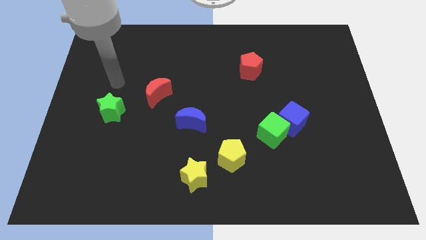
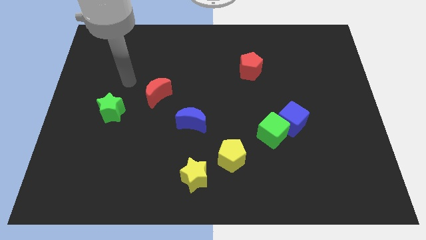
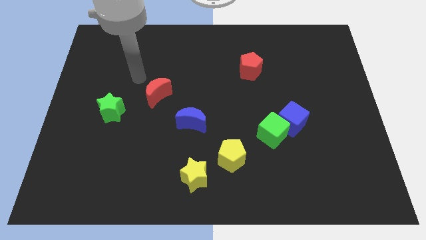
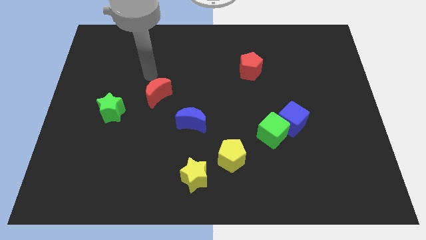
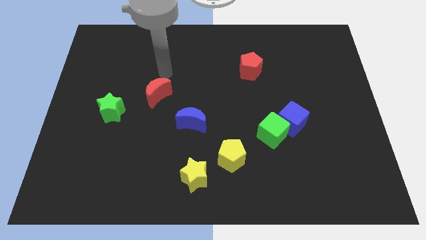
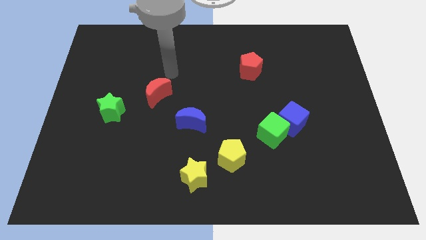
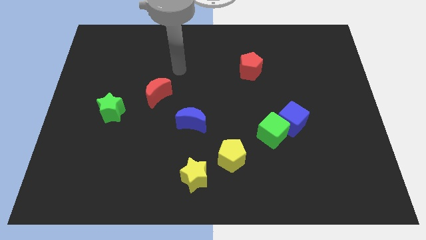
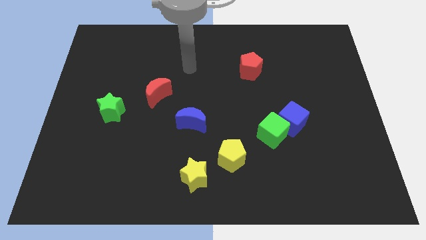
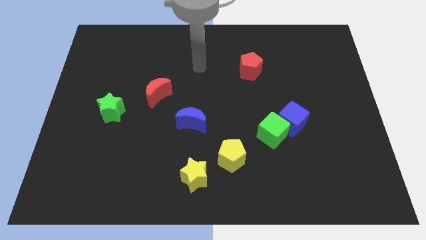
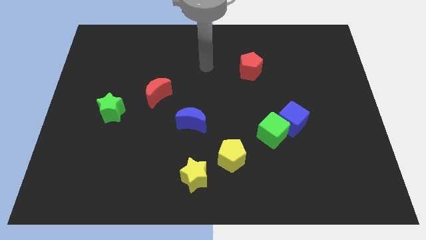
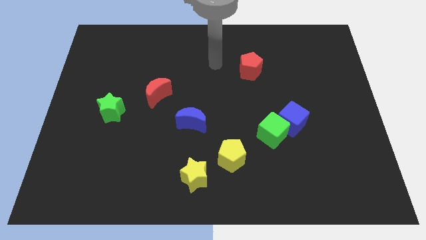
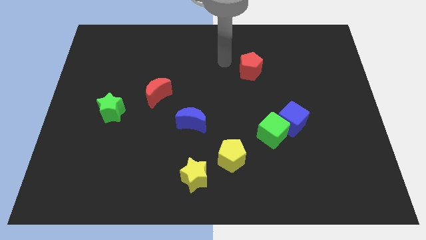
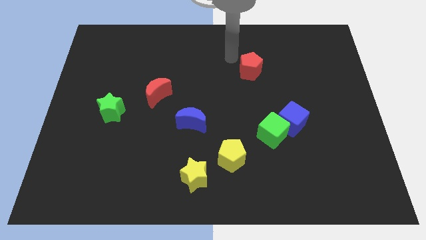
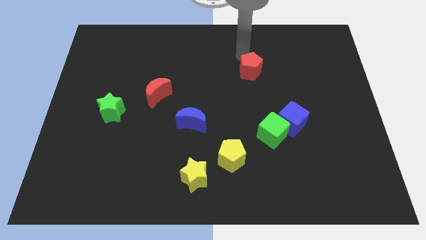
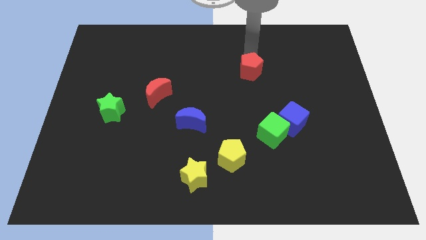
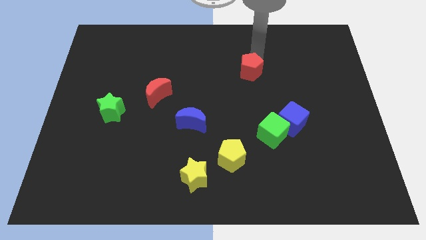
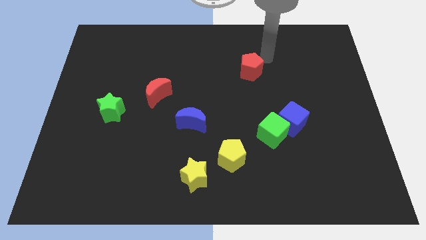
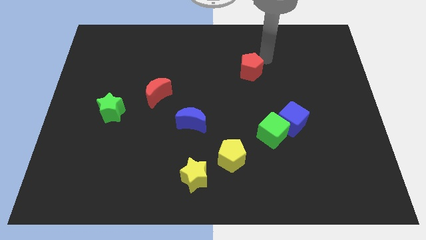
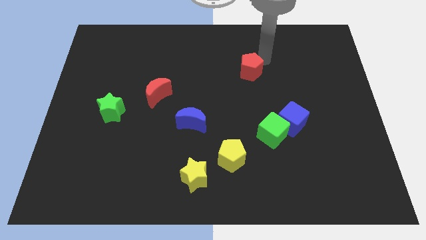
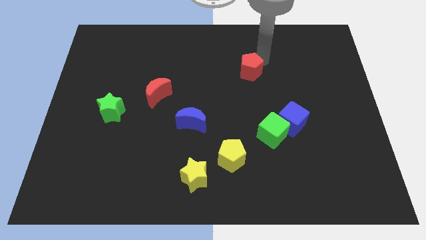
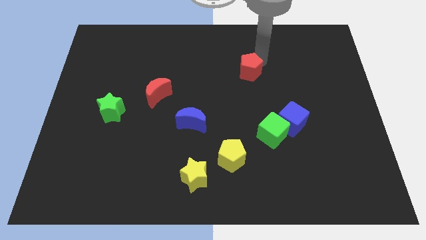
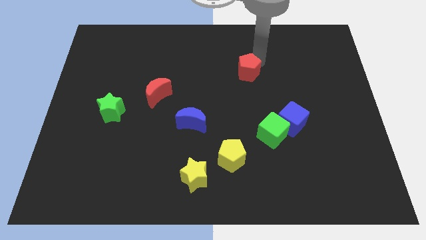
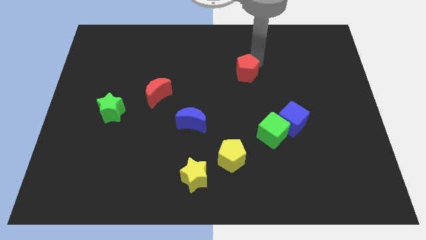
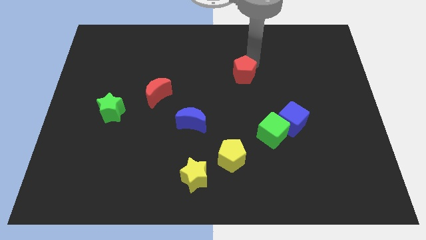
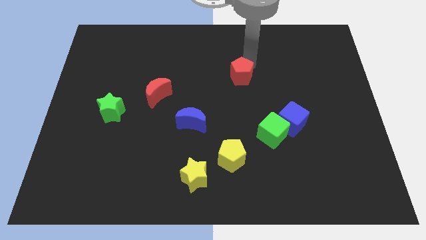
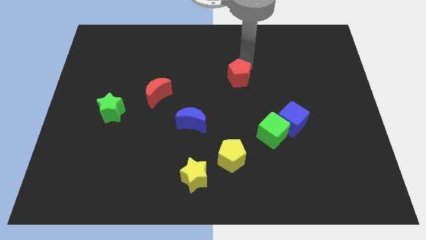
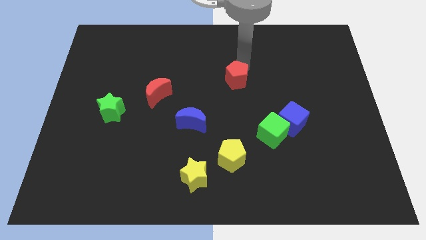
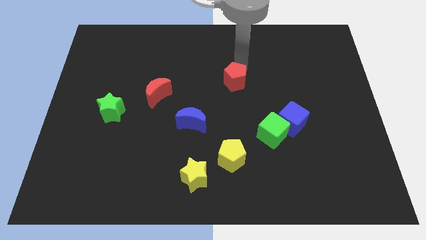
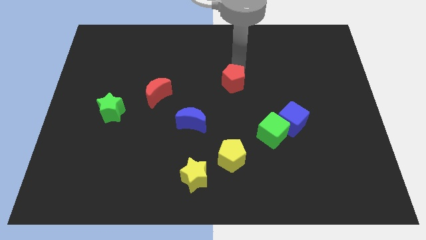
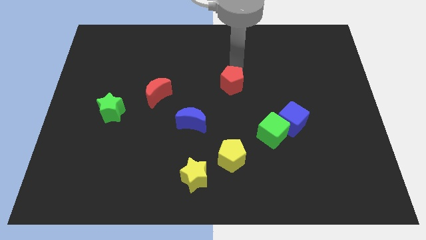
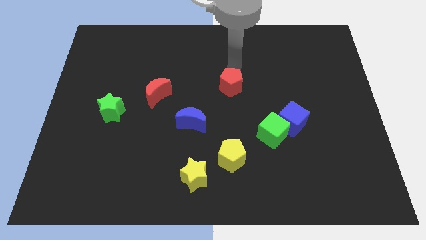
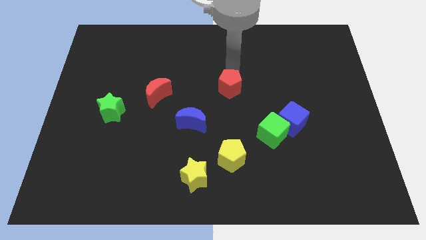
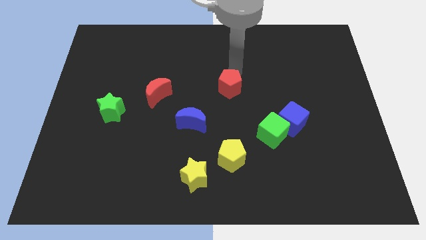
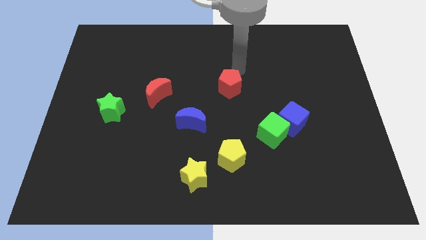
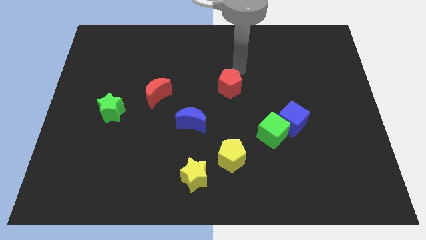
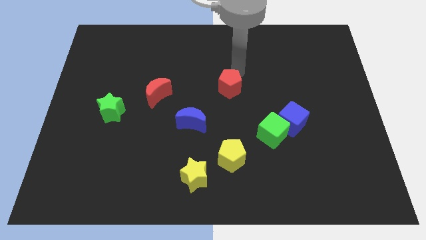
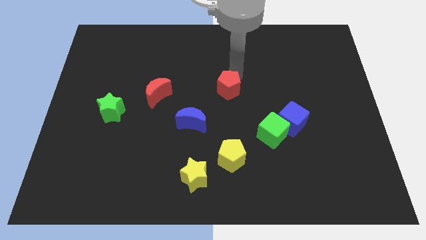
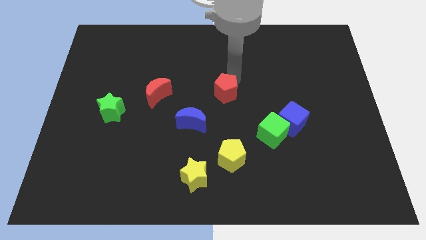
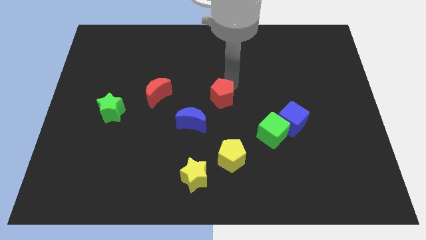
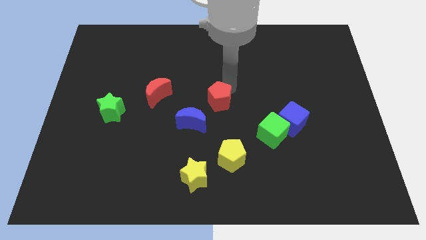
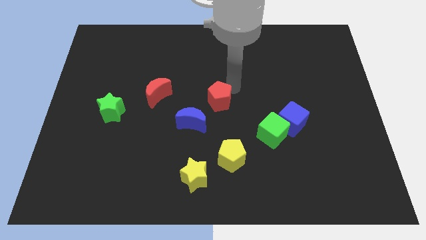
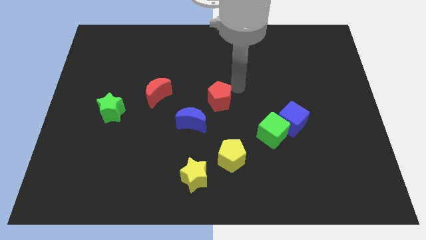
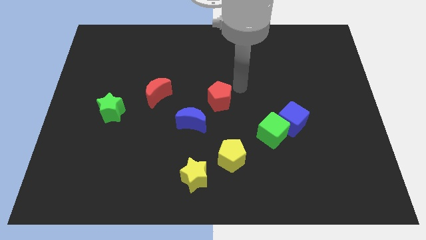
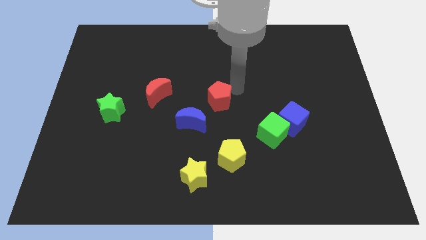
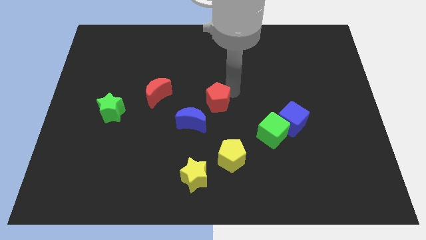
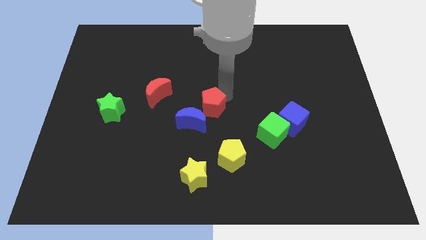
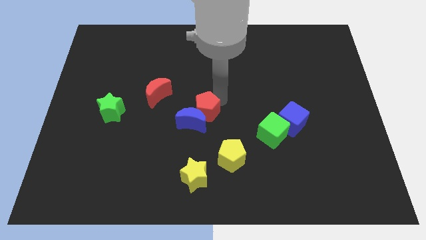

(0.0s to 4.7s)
slide the red pentagon close to the blue moon

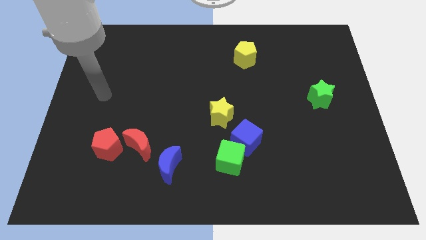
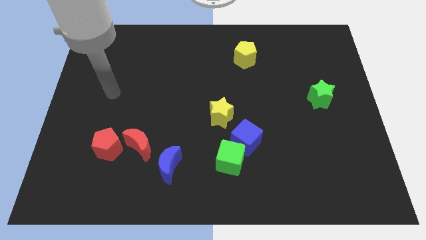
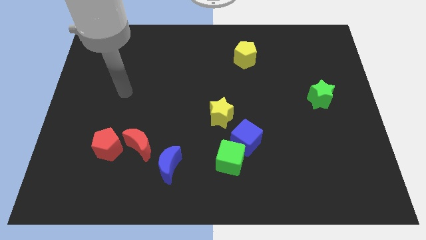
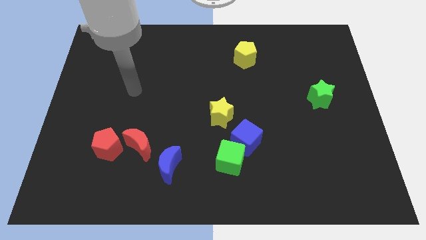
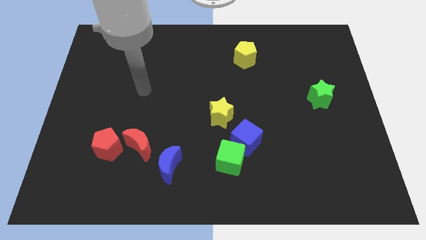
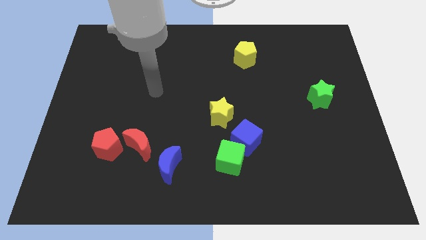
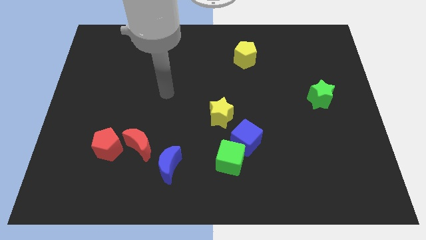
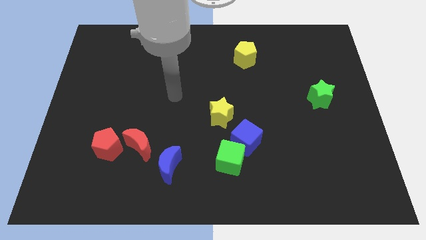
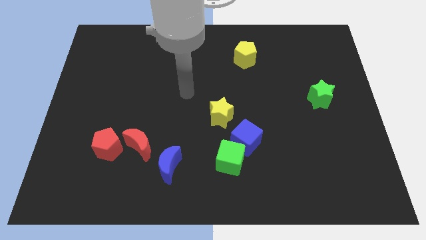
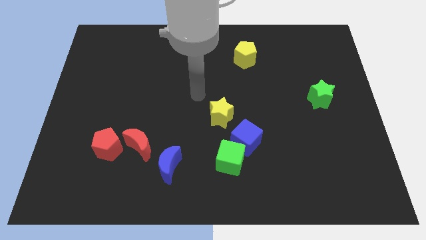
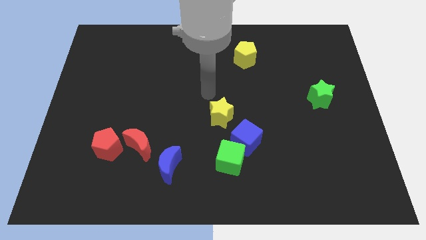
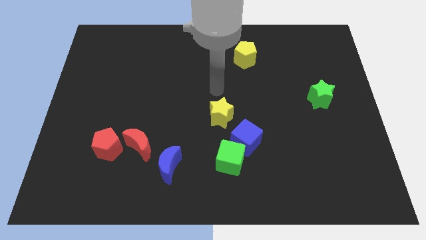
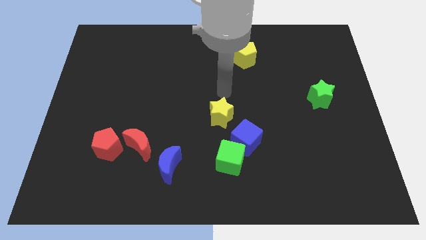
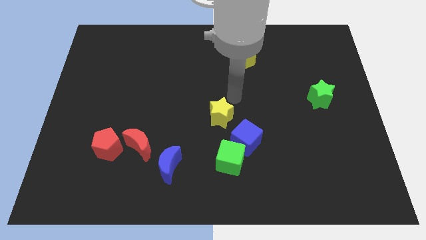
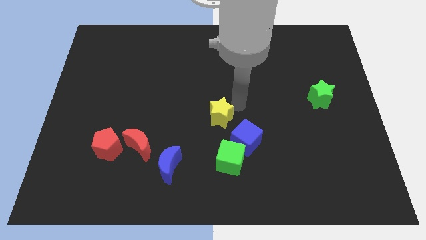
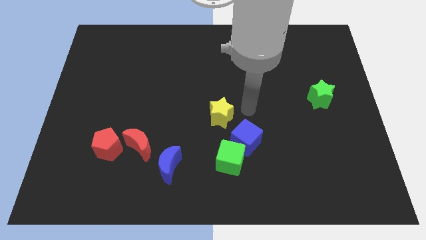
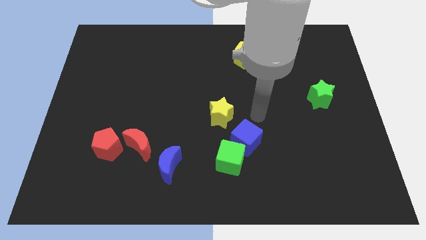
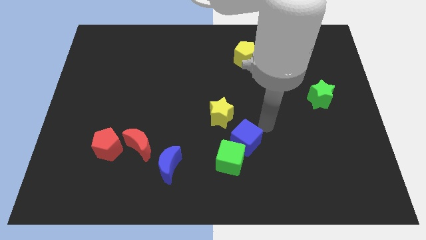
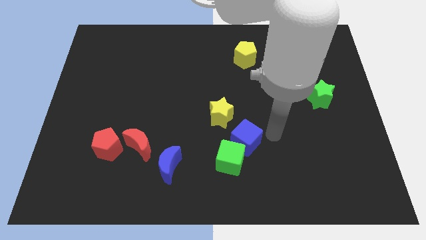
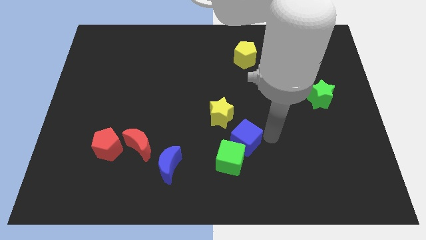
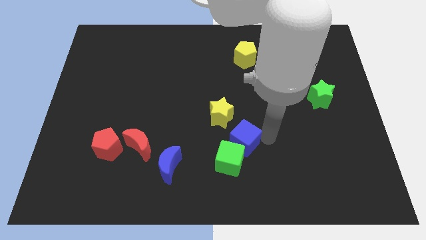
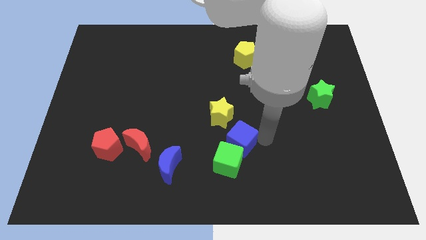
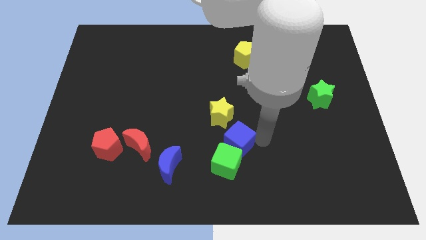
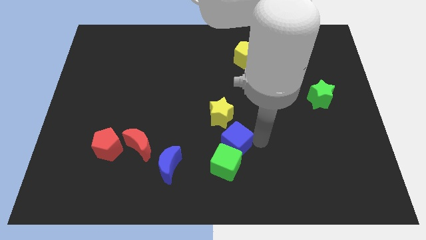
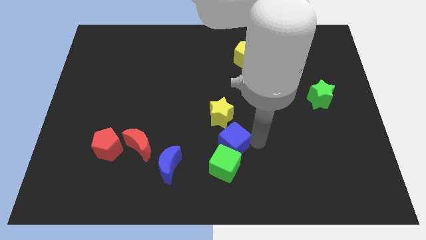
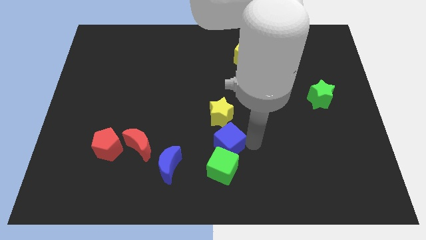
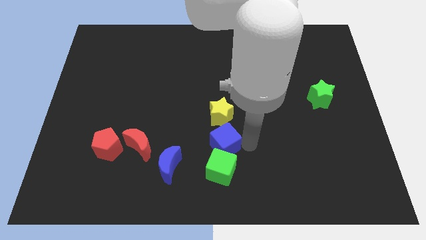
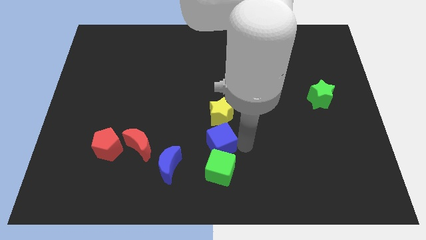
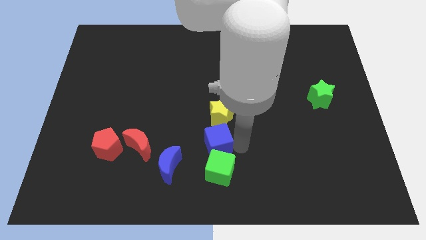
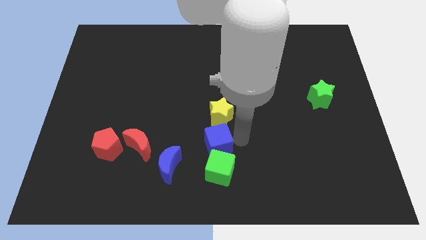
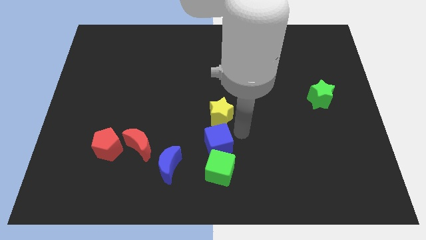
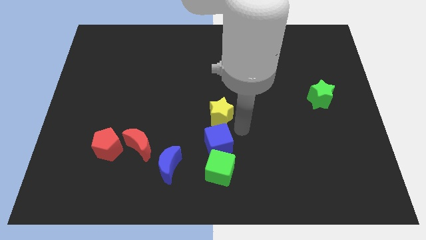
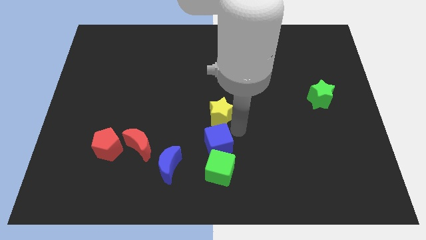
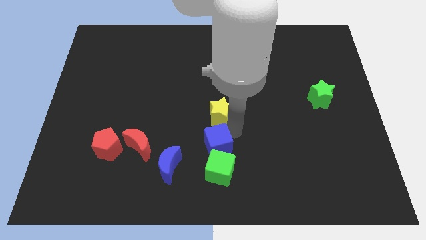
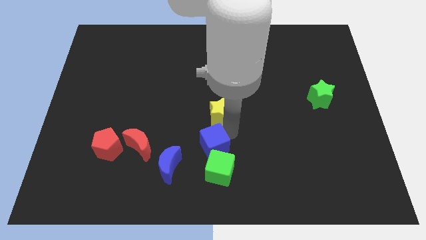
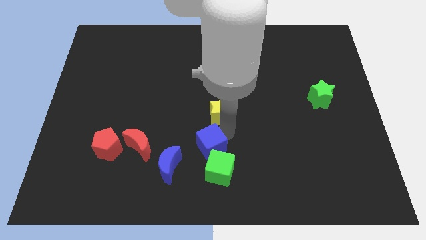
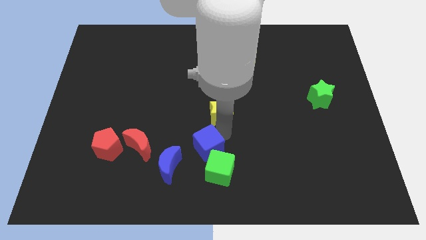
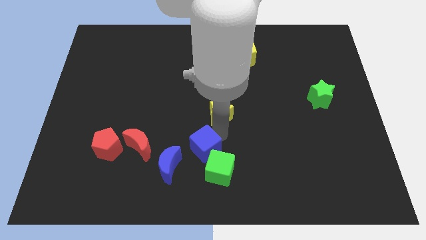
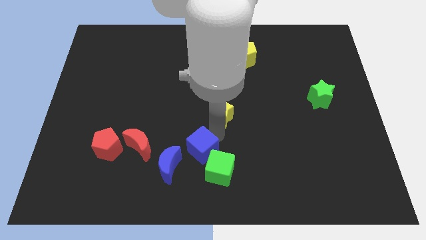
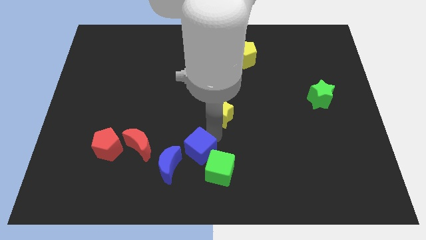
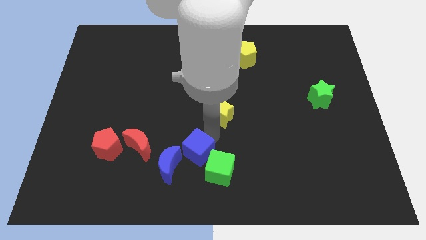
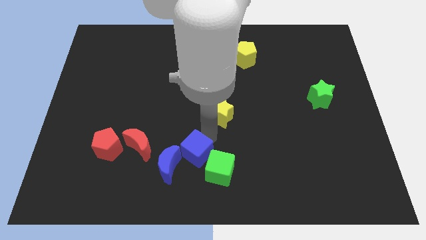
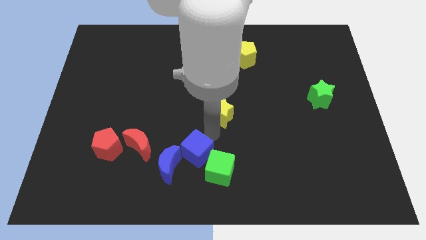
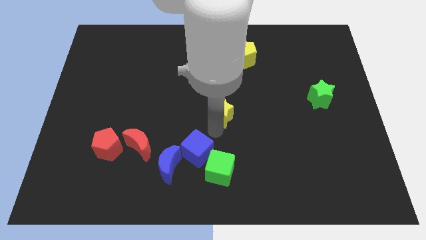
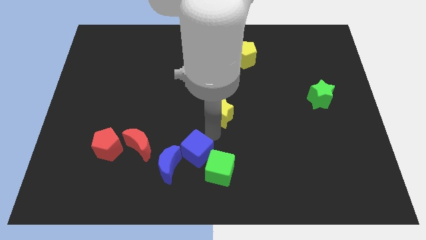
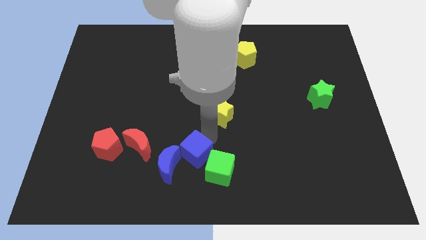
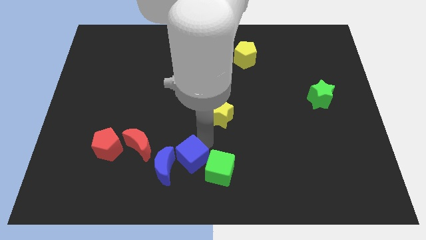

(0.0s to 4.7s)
move the blue cube next to the blue moon
